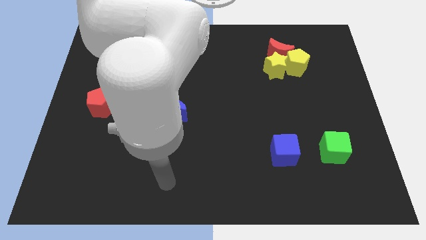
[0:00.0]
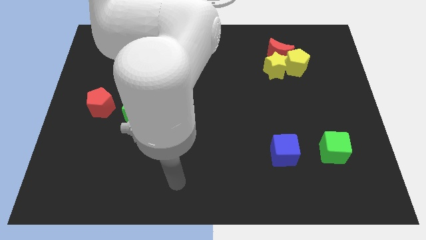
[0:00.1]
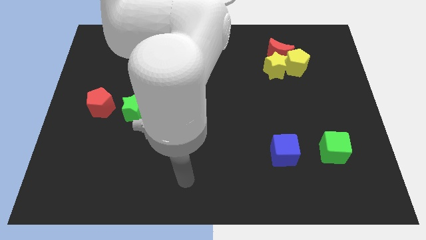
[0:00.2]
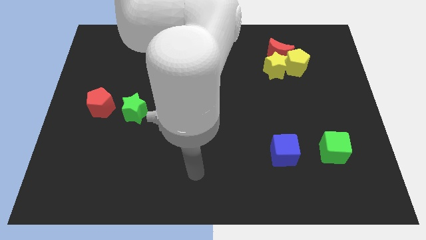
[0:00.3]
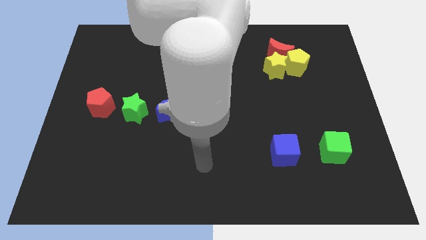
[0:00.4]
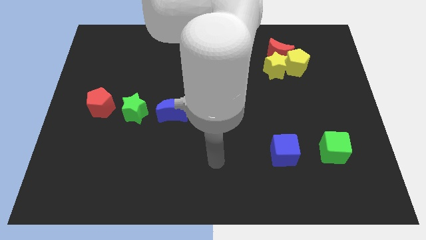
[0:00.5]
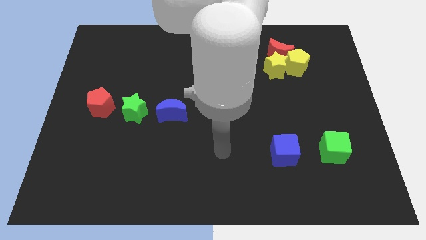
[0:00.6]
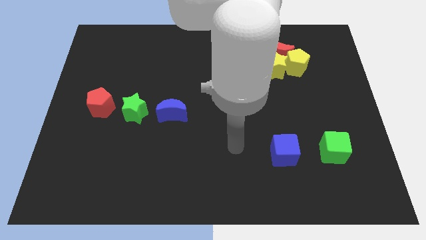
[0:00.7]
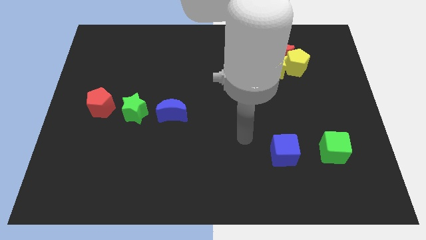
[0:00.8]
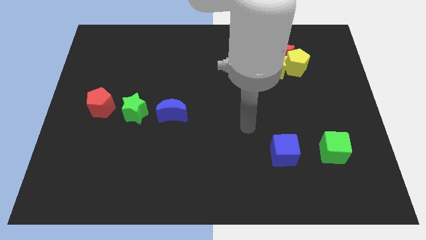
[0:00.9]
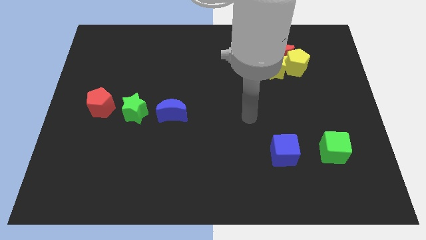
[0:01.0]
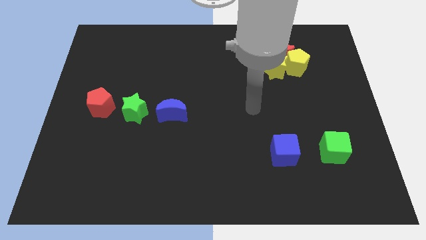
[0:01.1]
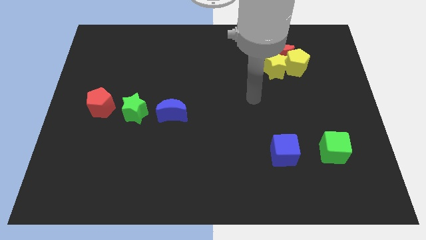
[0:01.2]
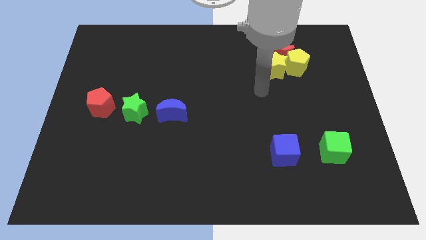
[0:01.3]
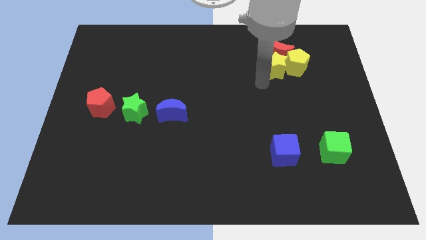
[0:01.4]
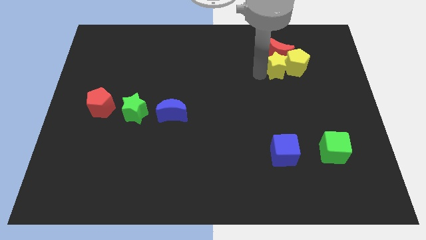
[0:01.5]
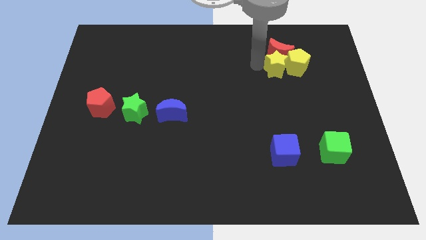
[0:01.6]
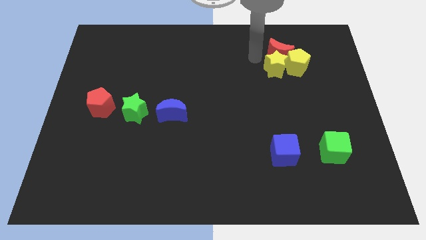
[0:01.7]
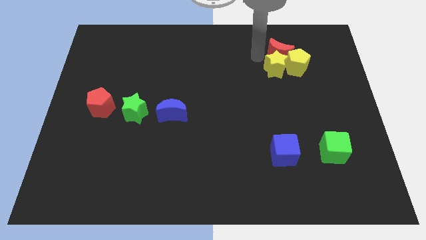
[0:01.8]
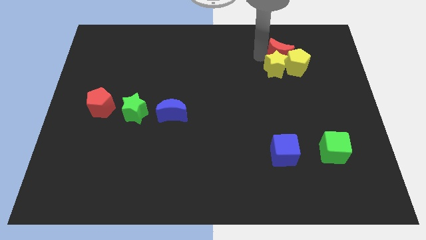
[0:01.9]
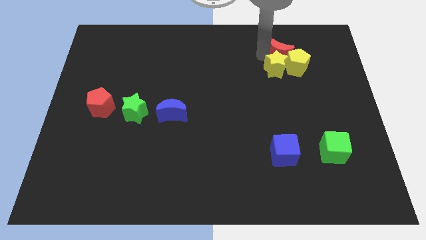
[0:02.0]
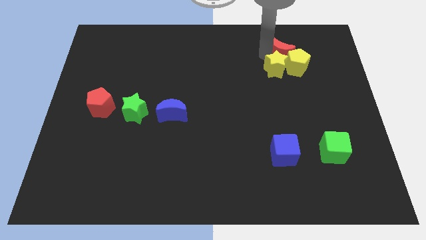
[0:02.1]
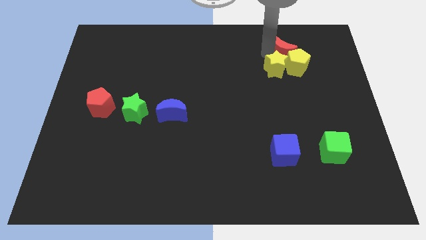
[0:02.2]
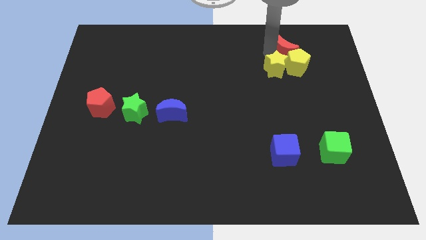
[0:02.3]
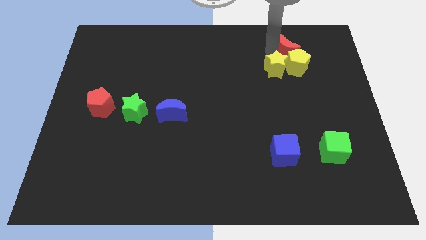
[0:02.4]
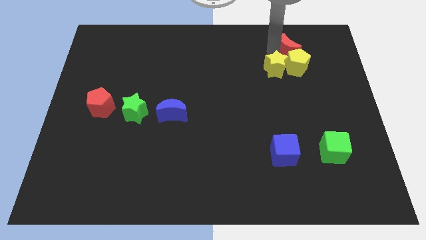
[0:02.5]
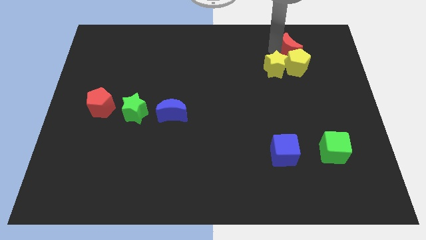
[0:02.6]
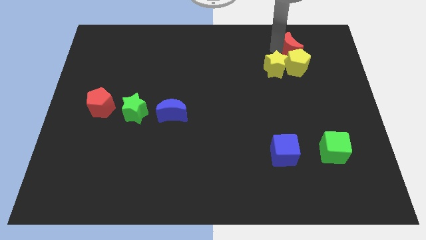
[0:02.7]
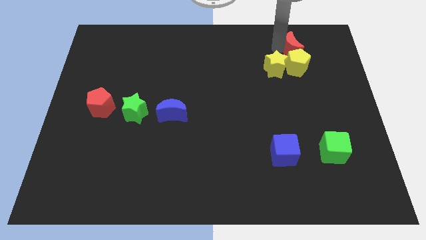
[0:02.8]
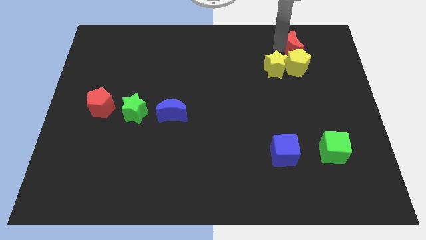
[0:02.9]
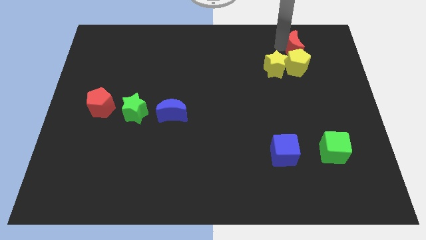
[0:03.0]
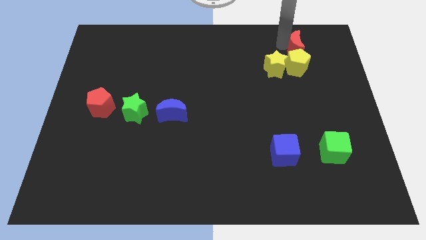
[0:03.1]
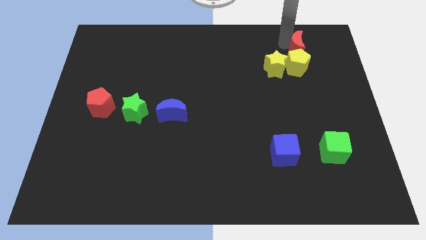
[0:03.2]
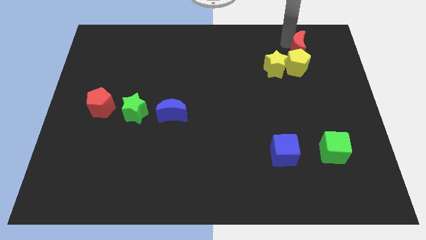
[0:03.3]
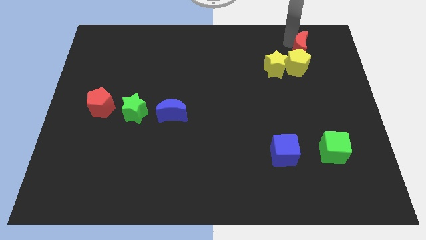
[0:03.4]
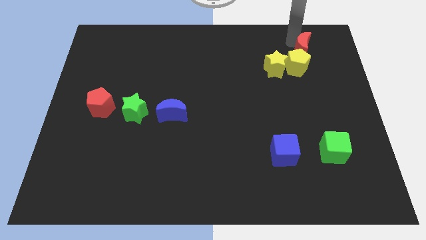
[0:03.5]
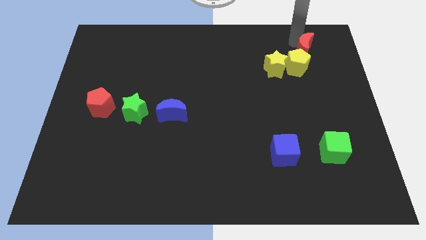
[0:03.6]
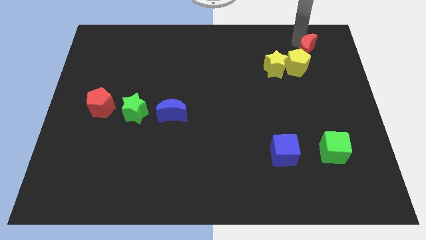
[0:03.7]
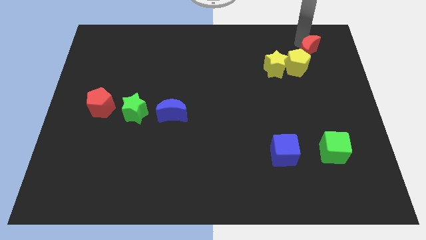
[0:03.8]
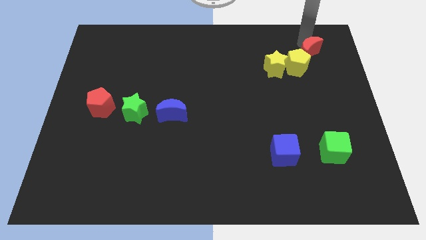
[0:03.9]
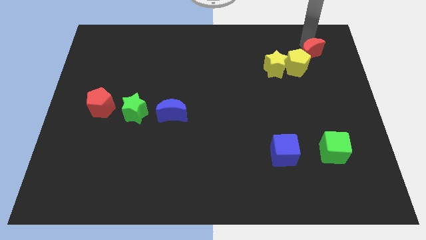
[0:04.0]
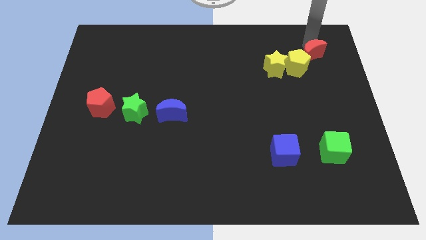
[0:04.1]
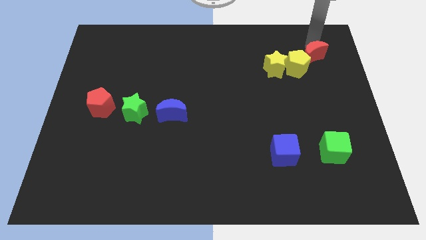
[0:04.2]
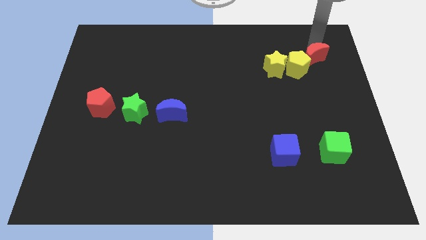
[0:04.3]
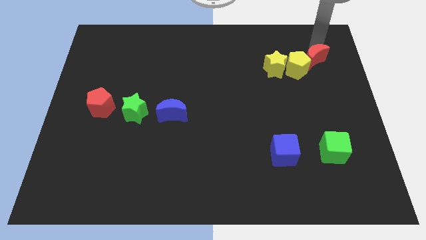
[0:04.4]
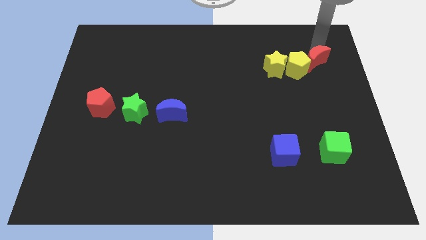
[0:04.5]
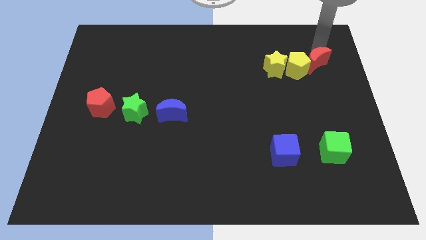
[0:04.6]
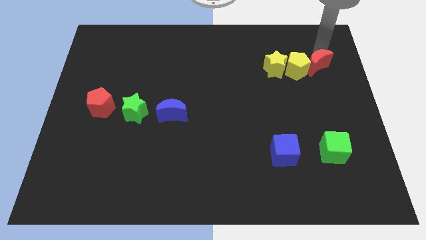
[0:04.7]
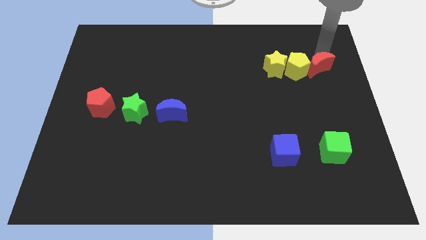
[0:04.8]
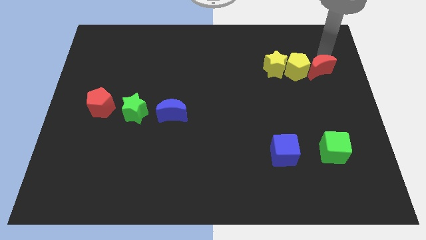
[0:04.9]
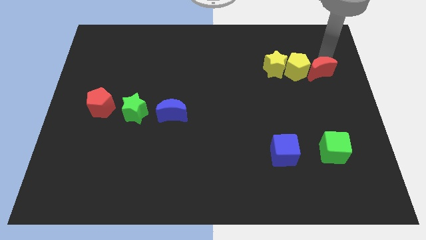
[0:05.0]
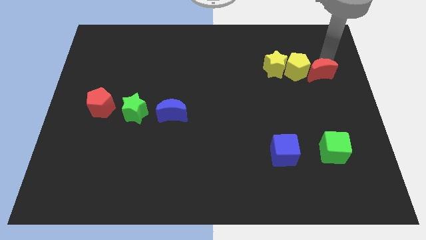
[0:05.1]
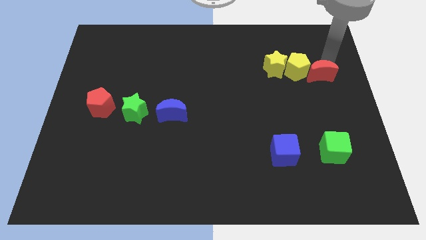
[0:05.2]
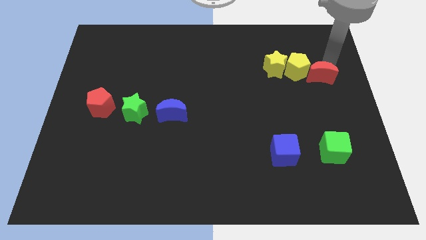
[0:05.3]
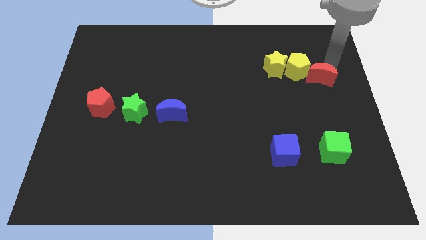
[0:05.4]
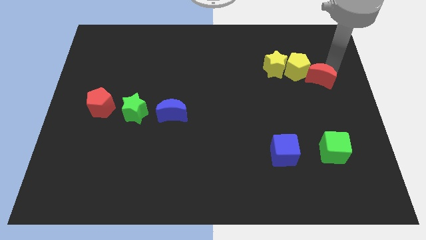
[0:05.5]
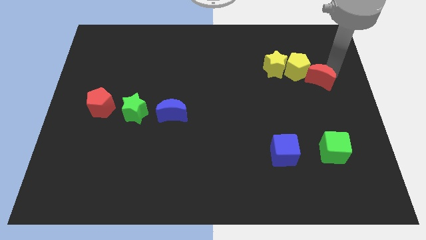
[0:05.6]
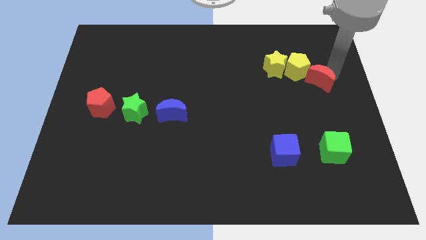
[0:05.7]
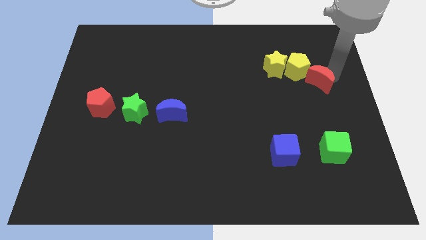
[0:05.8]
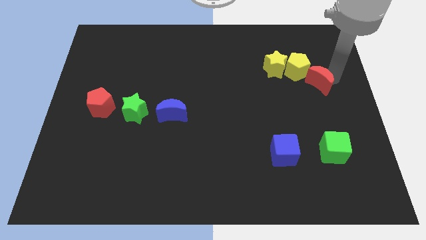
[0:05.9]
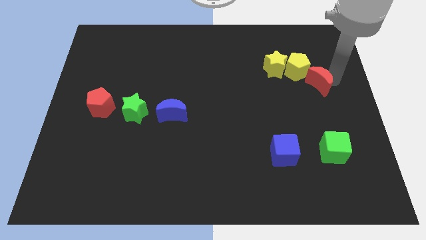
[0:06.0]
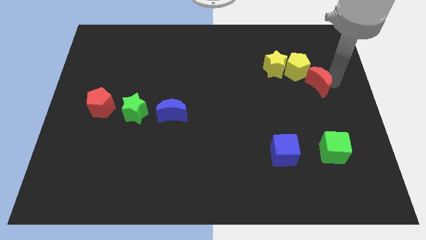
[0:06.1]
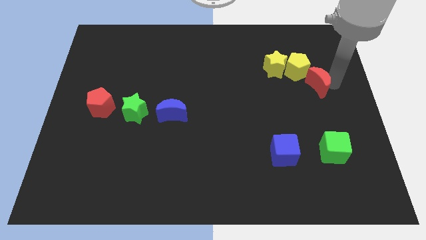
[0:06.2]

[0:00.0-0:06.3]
slide the red moon below the yellow pentagon

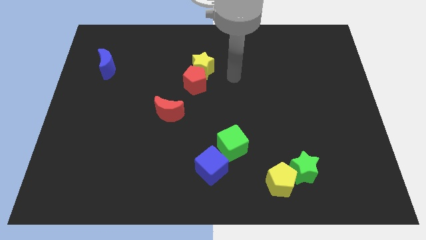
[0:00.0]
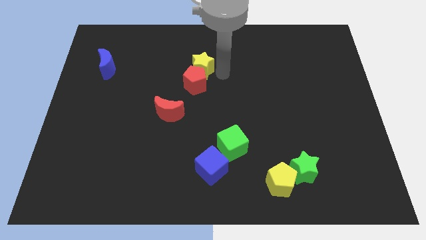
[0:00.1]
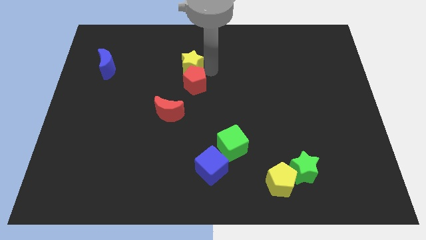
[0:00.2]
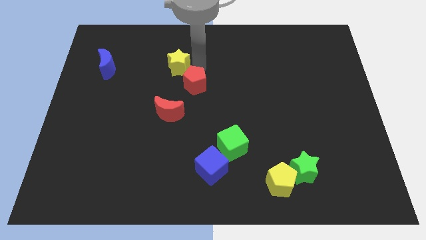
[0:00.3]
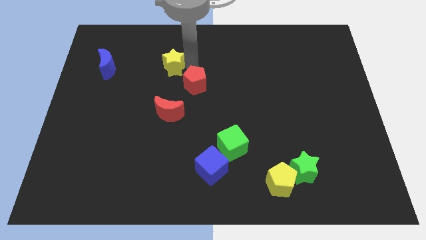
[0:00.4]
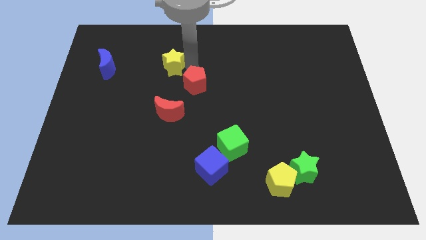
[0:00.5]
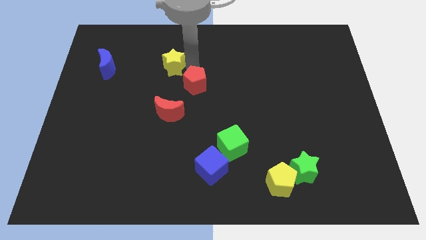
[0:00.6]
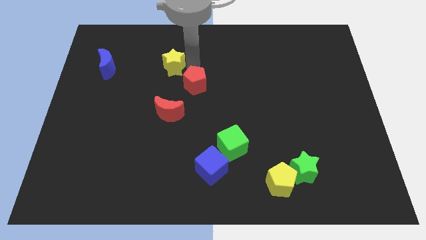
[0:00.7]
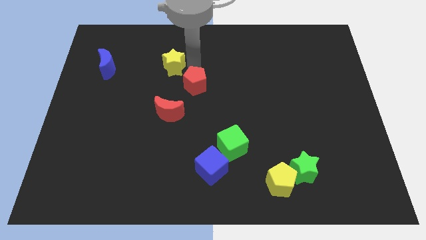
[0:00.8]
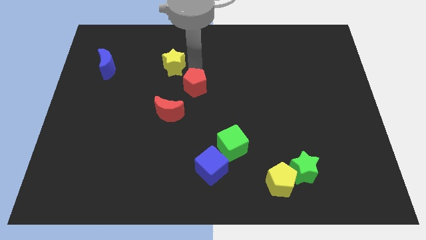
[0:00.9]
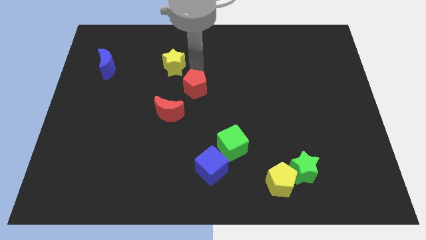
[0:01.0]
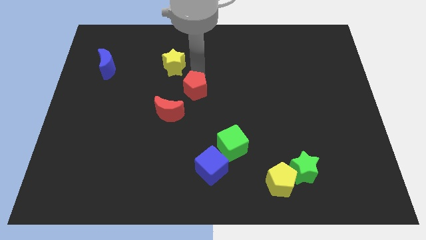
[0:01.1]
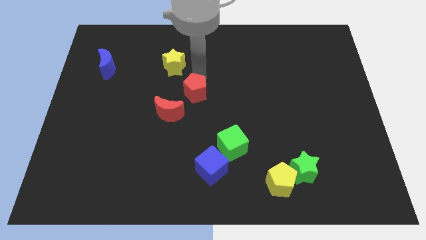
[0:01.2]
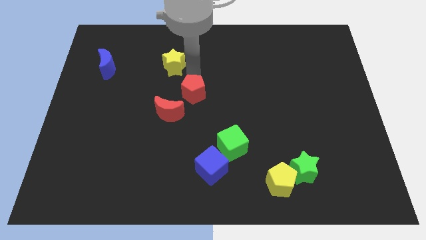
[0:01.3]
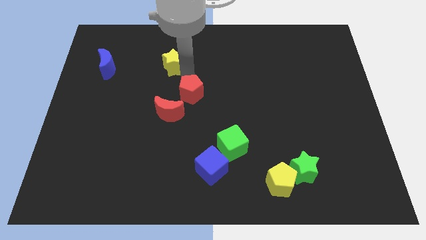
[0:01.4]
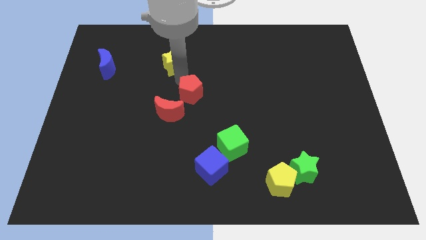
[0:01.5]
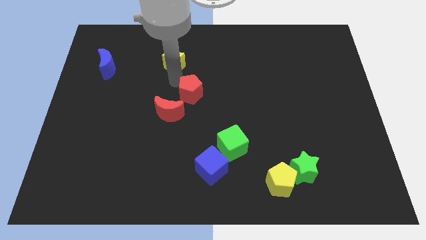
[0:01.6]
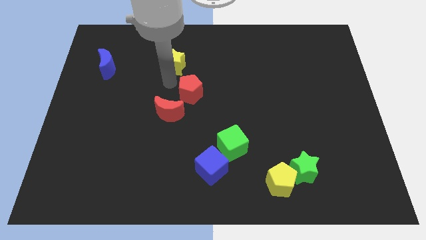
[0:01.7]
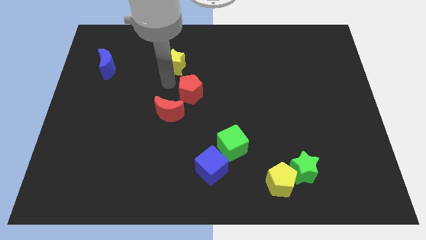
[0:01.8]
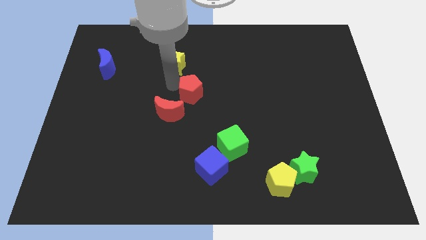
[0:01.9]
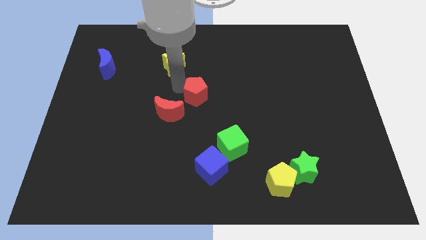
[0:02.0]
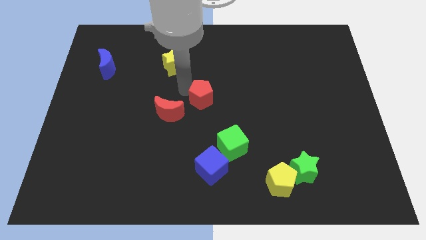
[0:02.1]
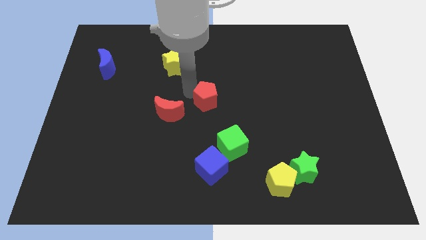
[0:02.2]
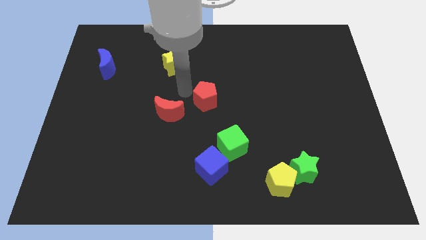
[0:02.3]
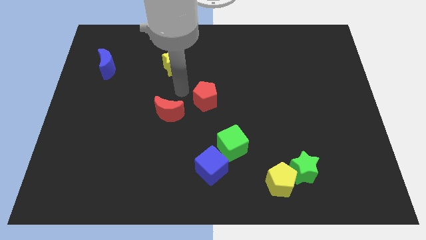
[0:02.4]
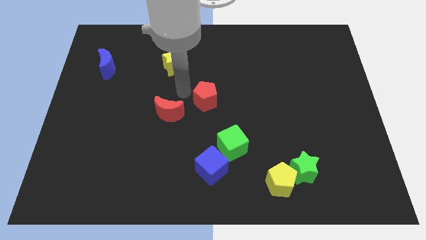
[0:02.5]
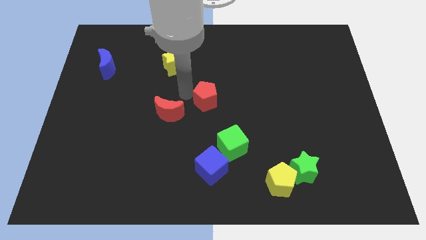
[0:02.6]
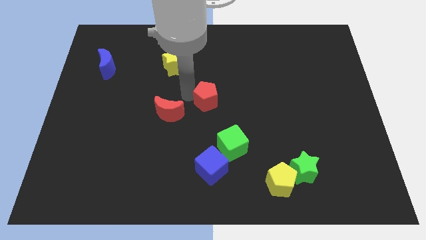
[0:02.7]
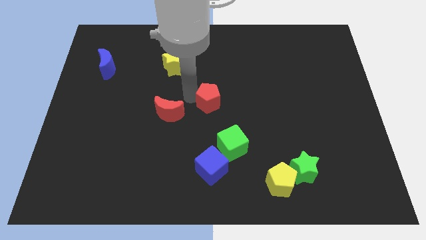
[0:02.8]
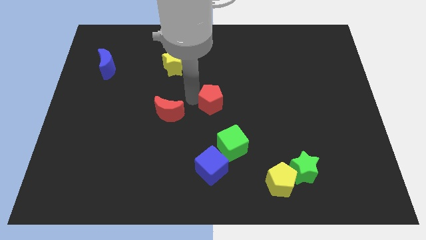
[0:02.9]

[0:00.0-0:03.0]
move the red pentagon above the green cube
